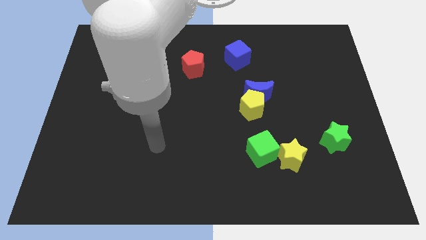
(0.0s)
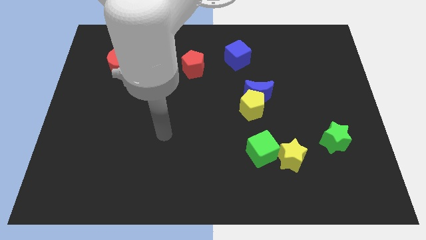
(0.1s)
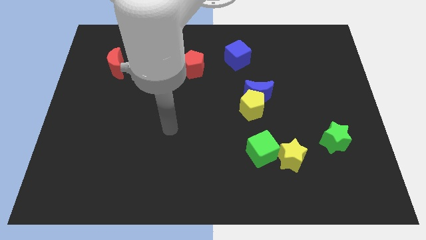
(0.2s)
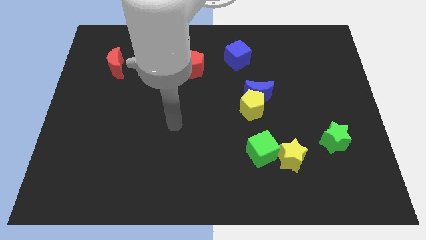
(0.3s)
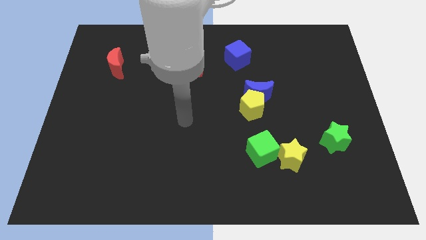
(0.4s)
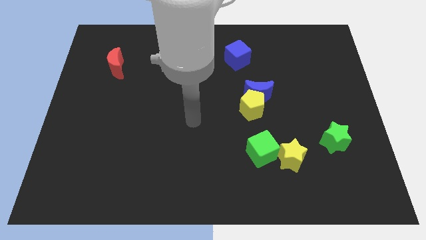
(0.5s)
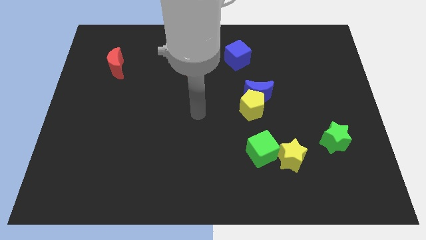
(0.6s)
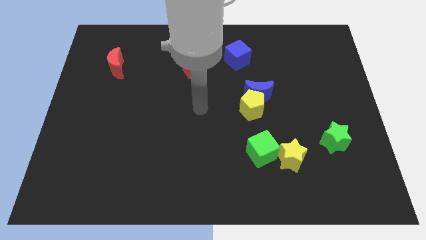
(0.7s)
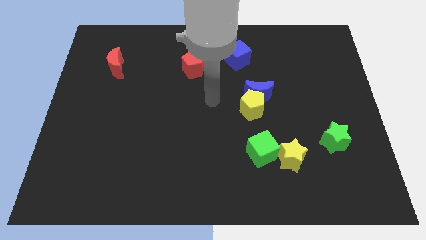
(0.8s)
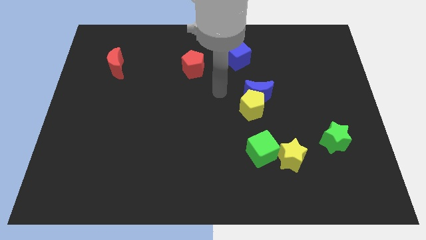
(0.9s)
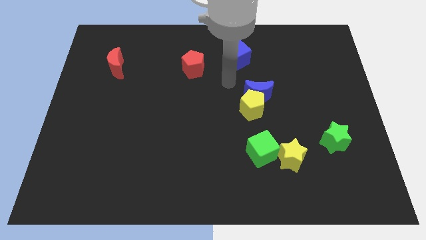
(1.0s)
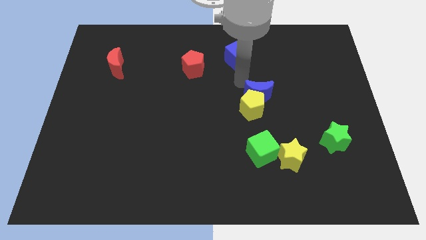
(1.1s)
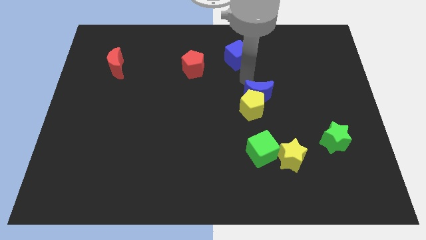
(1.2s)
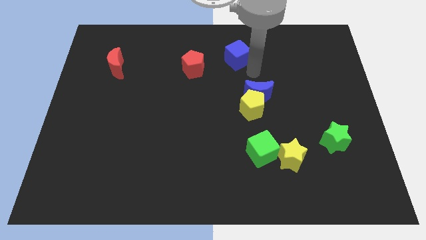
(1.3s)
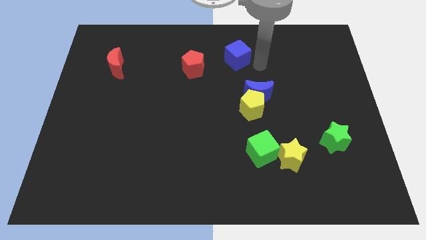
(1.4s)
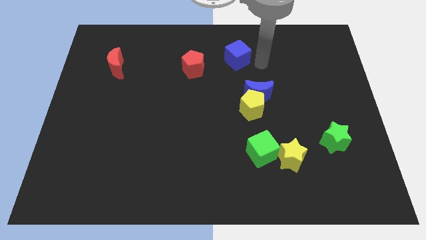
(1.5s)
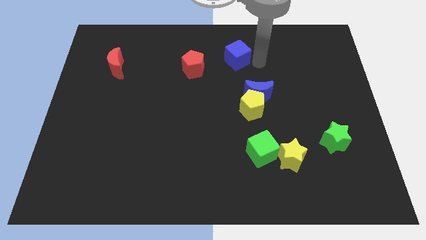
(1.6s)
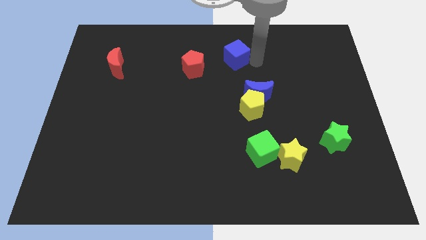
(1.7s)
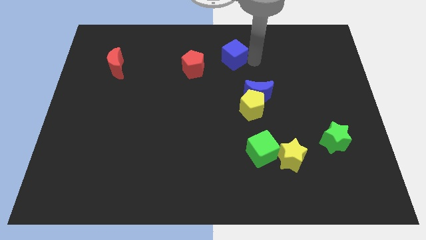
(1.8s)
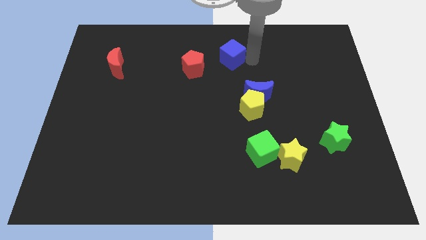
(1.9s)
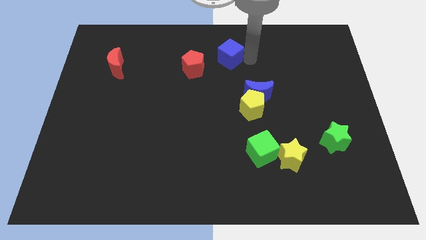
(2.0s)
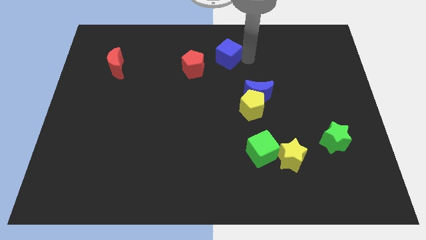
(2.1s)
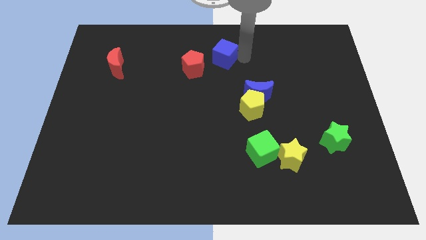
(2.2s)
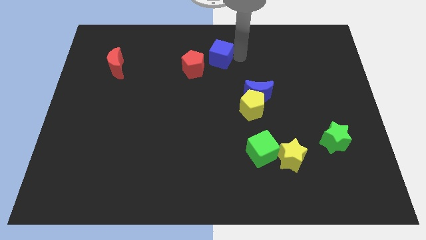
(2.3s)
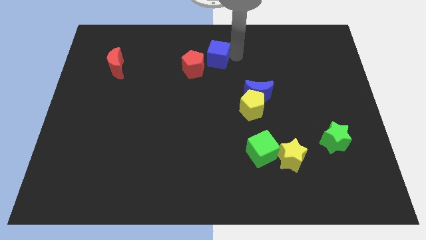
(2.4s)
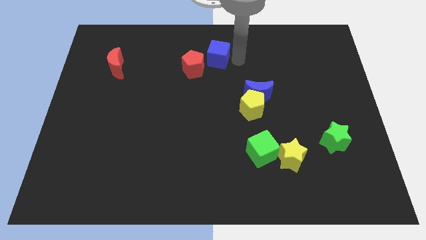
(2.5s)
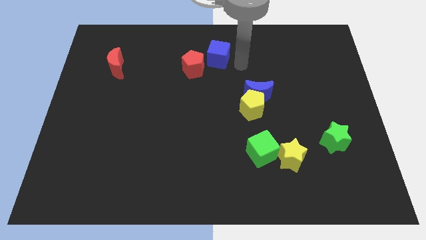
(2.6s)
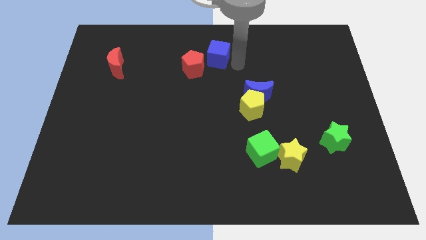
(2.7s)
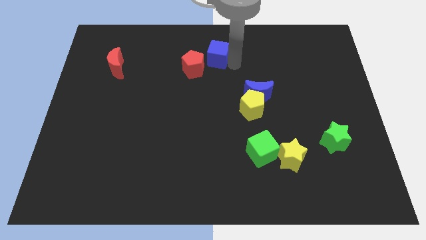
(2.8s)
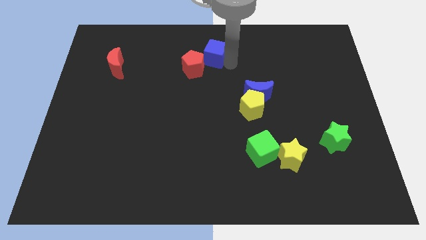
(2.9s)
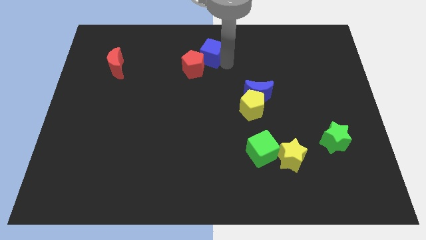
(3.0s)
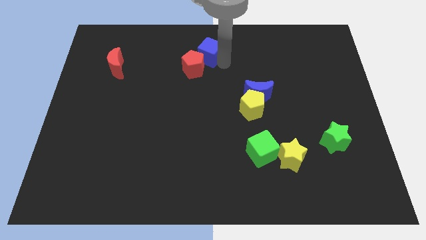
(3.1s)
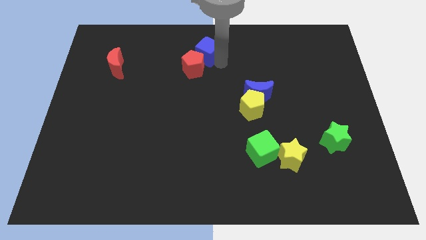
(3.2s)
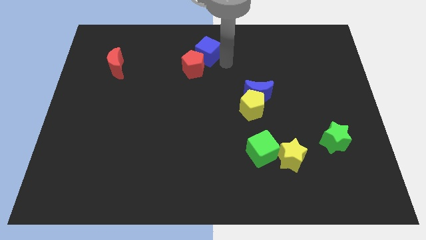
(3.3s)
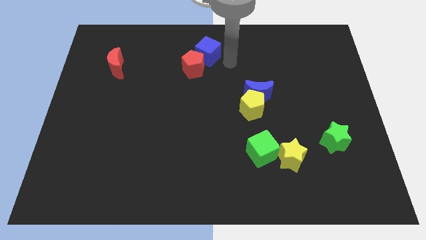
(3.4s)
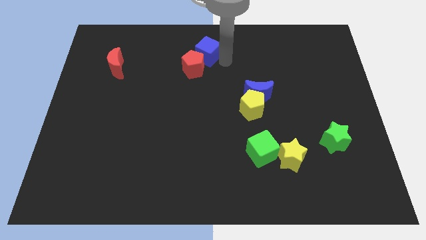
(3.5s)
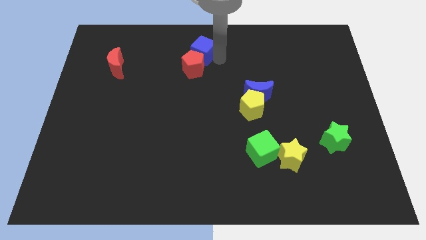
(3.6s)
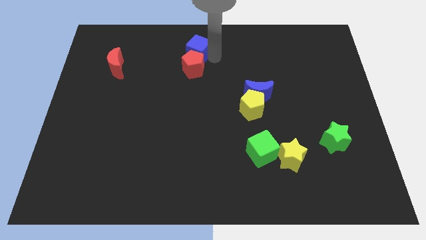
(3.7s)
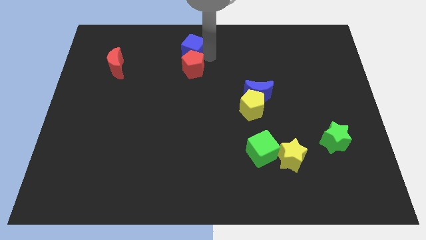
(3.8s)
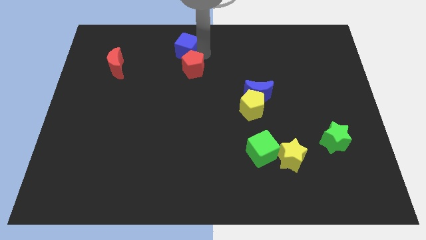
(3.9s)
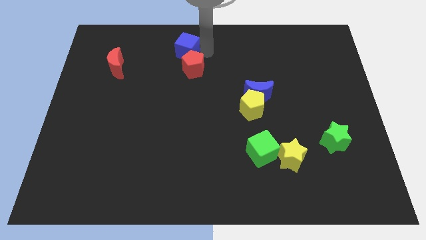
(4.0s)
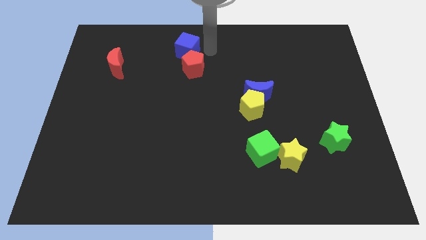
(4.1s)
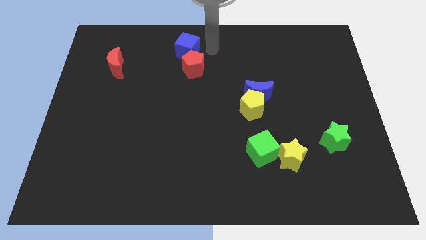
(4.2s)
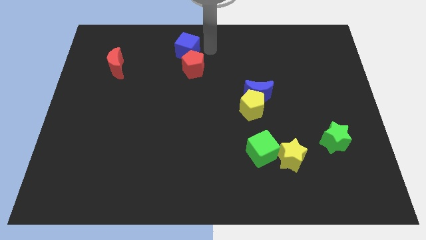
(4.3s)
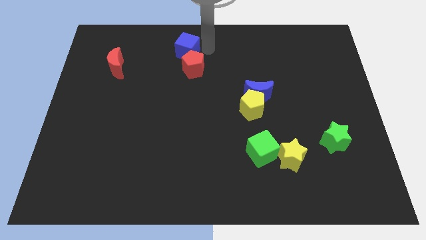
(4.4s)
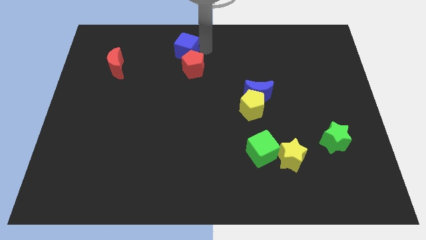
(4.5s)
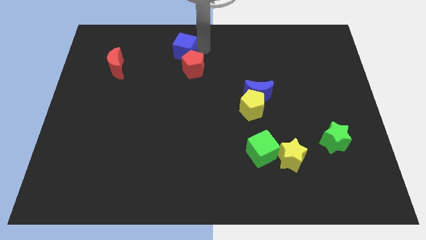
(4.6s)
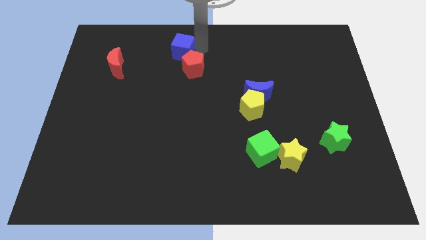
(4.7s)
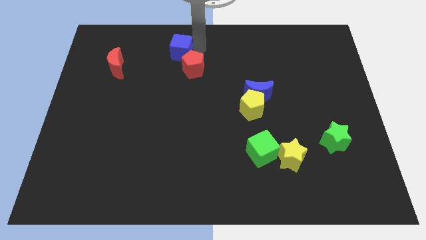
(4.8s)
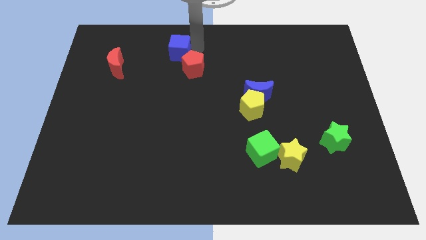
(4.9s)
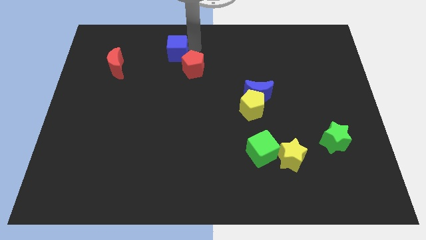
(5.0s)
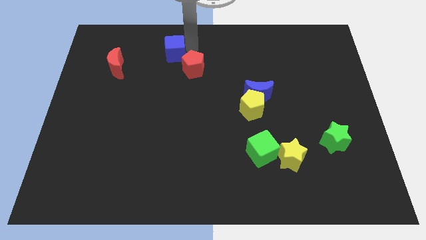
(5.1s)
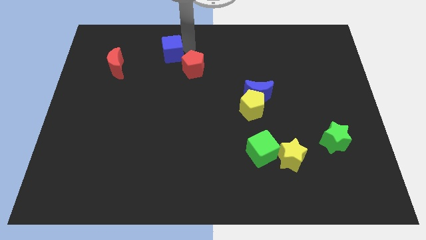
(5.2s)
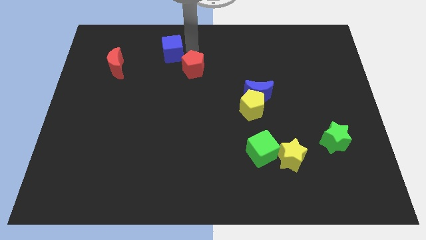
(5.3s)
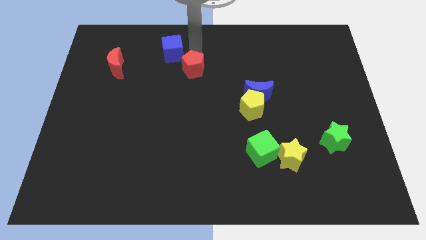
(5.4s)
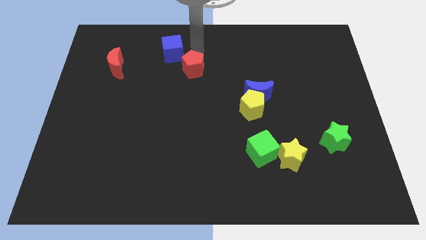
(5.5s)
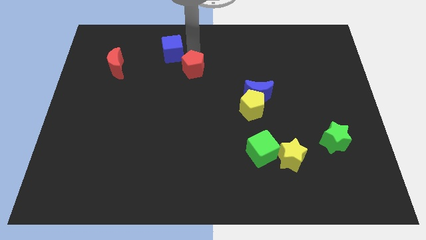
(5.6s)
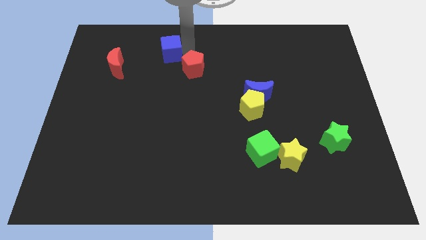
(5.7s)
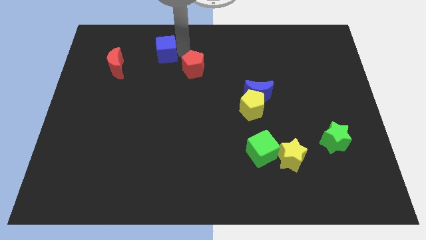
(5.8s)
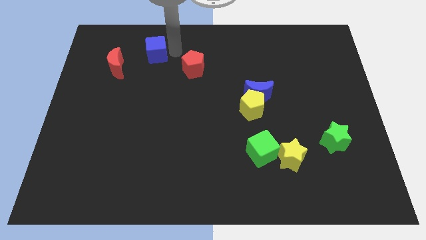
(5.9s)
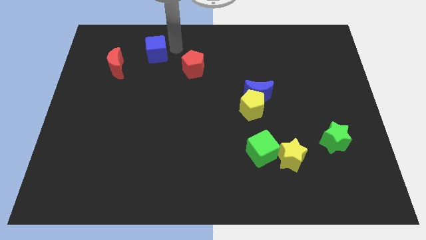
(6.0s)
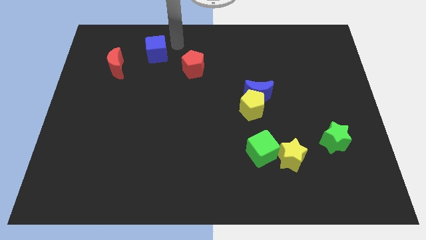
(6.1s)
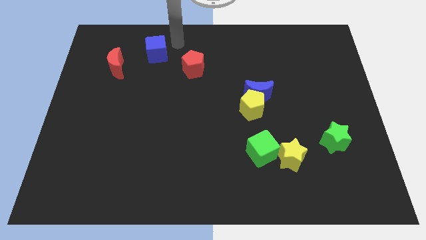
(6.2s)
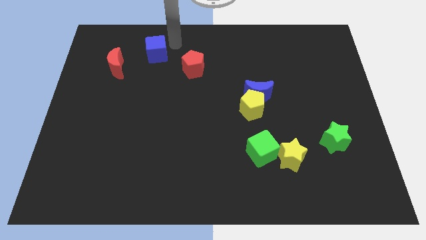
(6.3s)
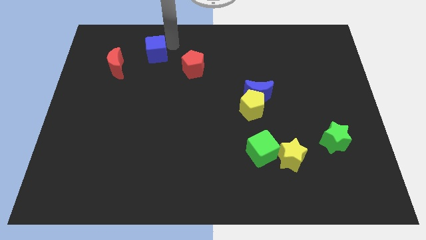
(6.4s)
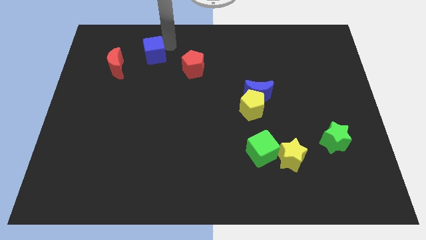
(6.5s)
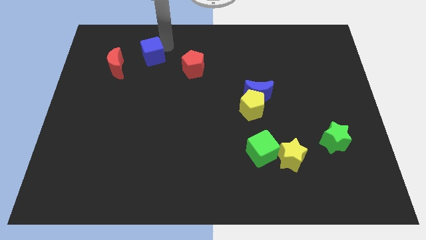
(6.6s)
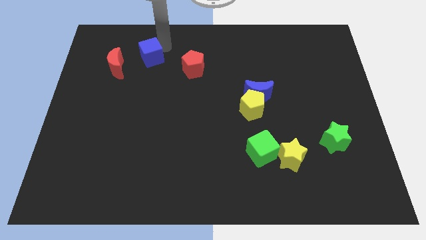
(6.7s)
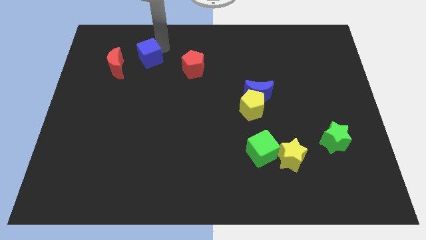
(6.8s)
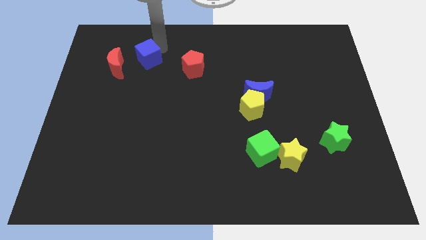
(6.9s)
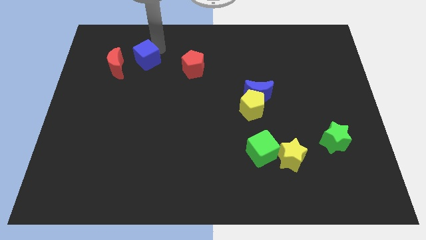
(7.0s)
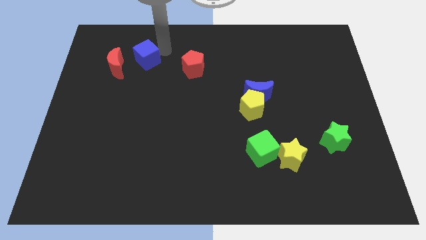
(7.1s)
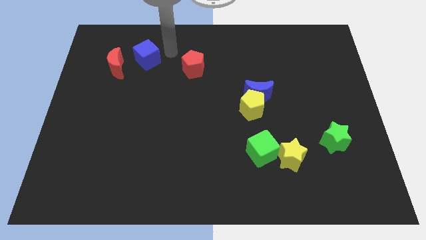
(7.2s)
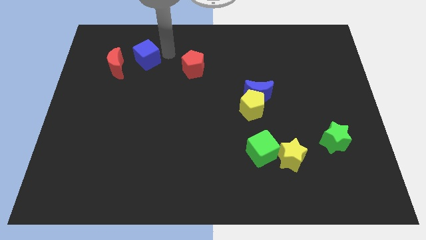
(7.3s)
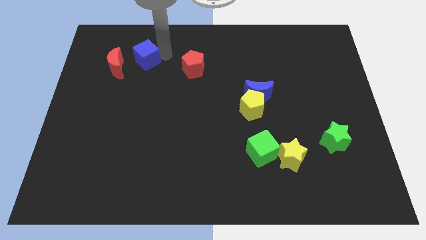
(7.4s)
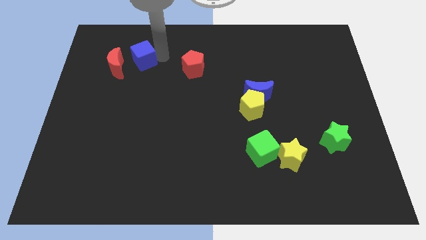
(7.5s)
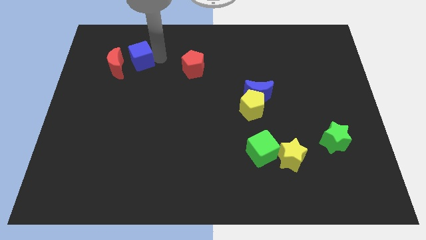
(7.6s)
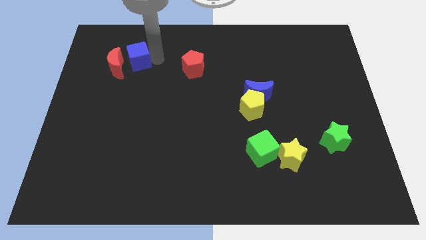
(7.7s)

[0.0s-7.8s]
push the blue cube close to the red moon
